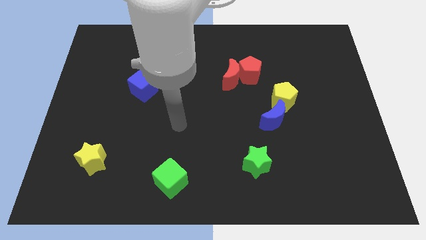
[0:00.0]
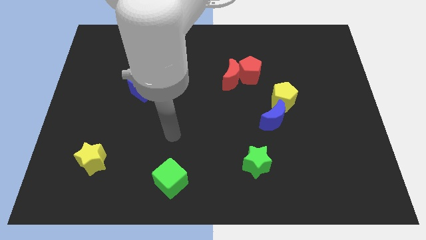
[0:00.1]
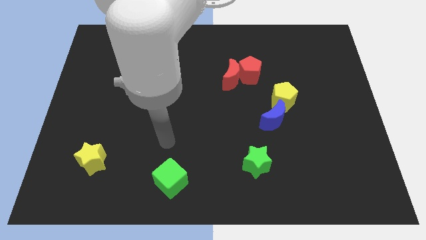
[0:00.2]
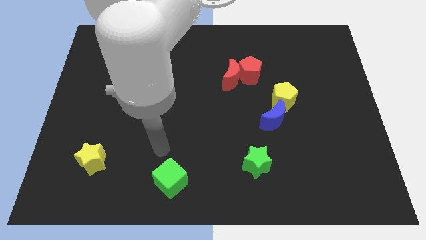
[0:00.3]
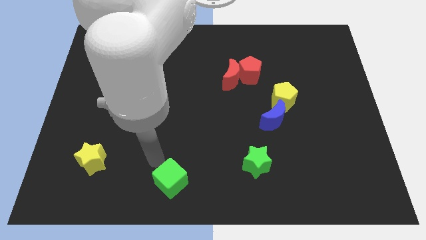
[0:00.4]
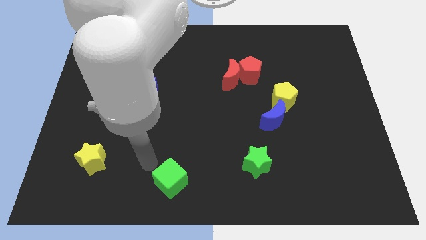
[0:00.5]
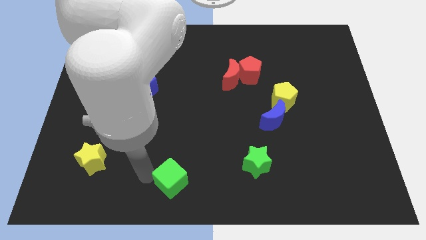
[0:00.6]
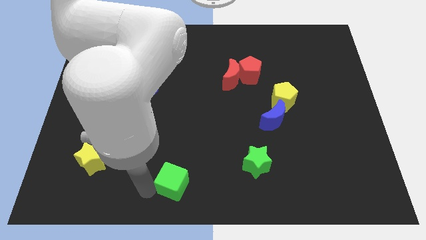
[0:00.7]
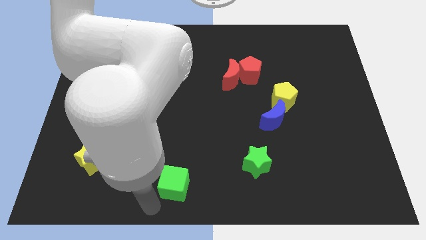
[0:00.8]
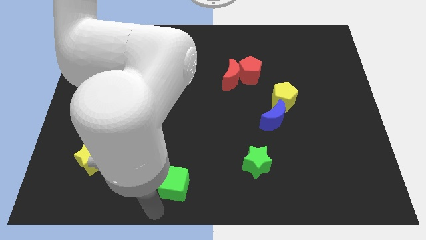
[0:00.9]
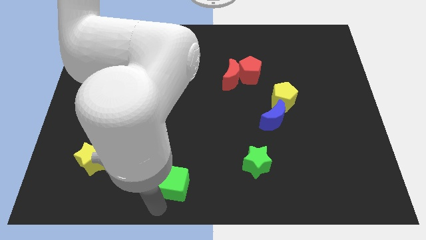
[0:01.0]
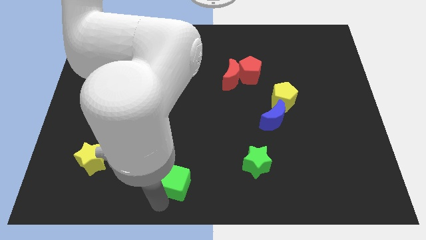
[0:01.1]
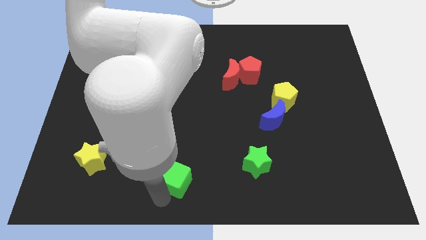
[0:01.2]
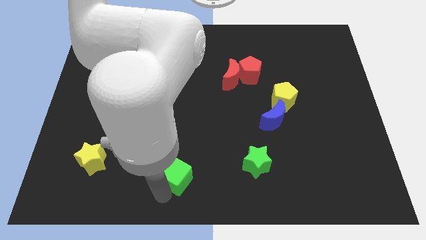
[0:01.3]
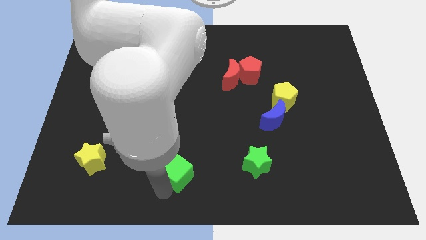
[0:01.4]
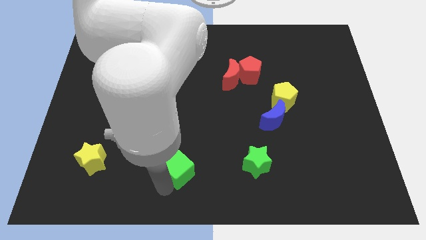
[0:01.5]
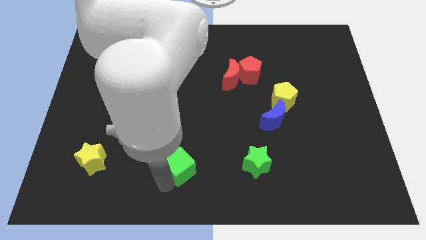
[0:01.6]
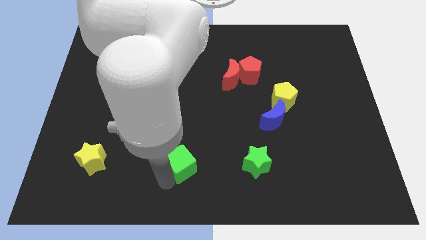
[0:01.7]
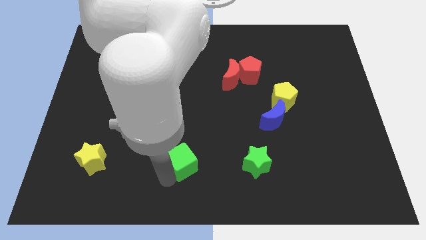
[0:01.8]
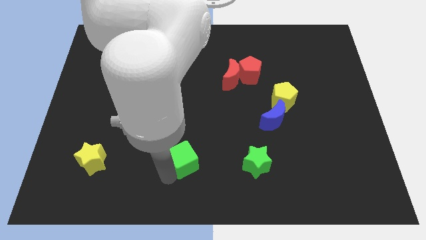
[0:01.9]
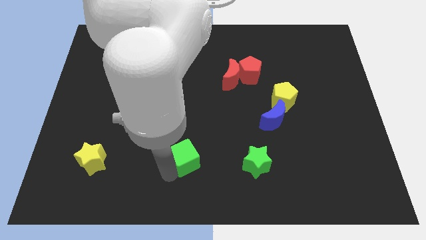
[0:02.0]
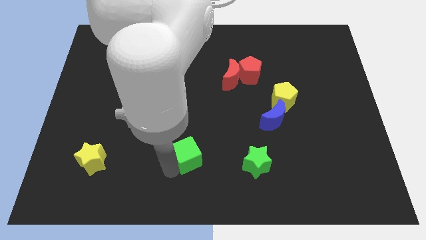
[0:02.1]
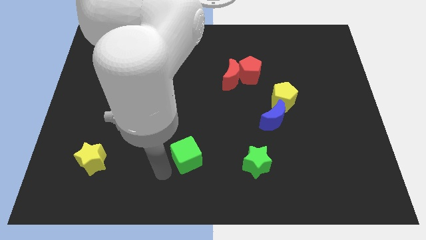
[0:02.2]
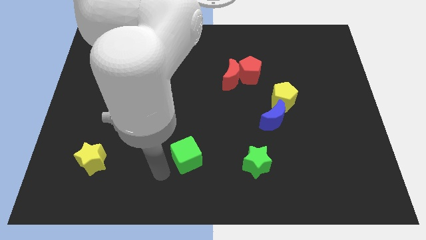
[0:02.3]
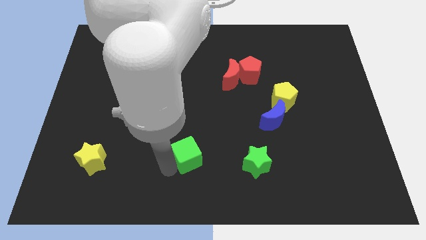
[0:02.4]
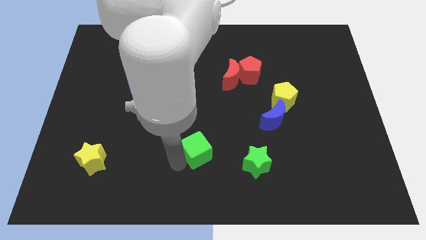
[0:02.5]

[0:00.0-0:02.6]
slide the green cube somewhat up and to the right diagonally

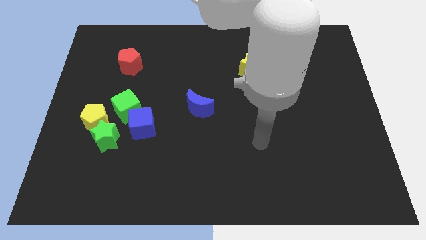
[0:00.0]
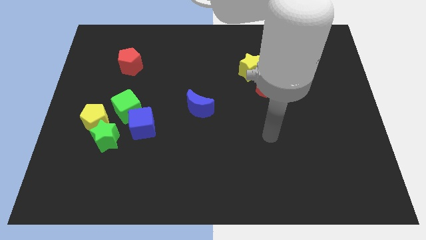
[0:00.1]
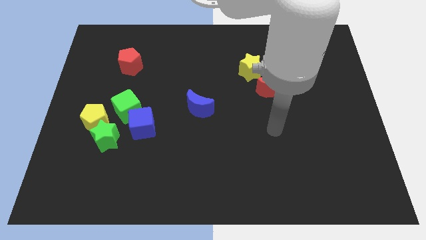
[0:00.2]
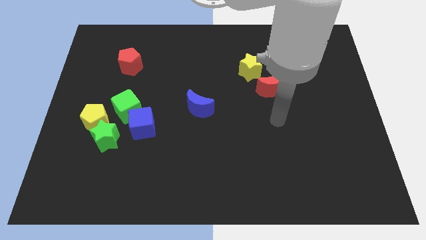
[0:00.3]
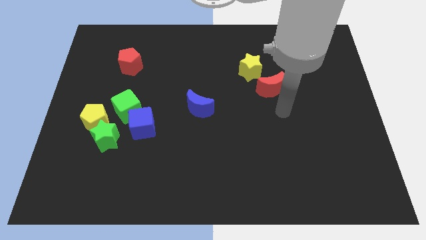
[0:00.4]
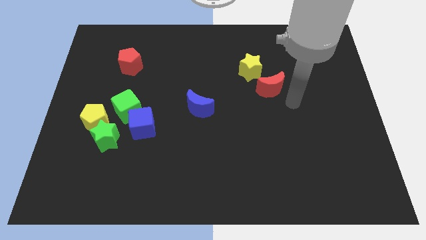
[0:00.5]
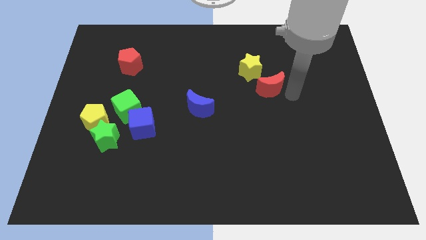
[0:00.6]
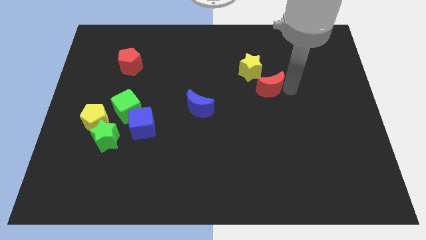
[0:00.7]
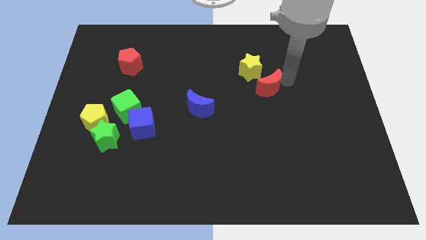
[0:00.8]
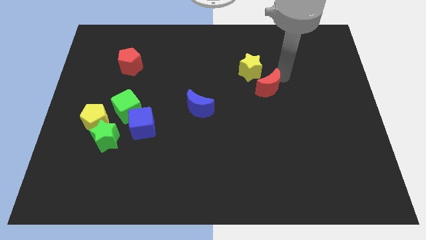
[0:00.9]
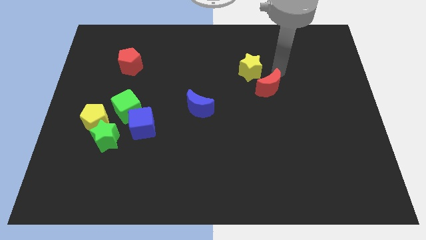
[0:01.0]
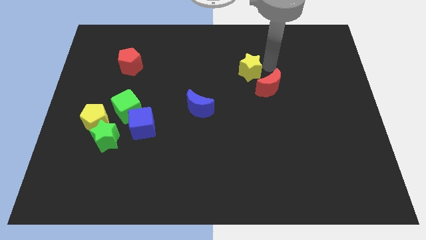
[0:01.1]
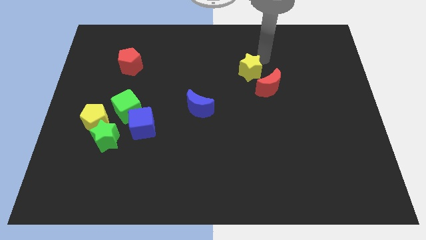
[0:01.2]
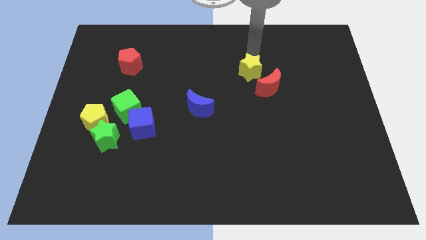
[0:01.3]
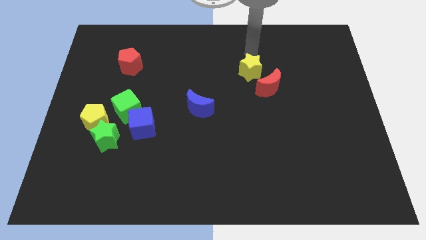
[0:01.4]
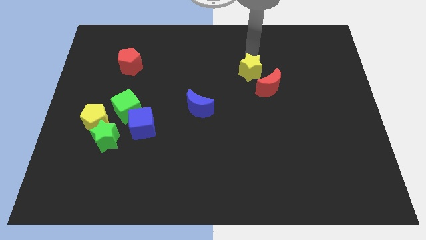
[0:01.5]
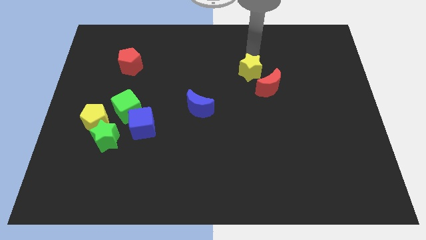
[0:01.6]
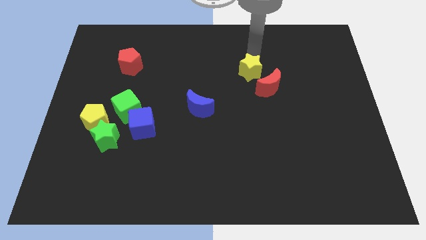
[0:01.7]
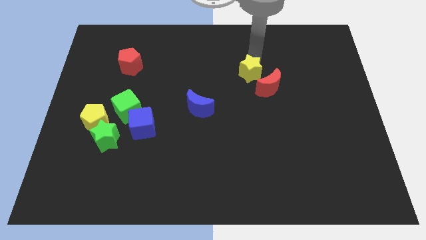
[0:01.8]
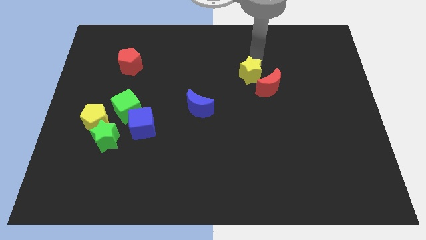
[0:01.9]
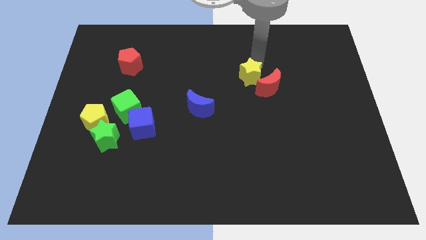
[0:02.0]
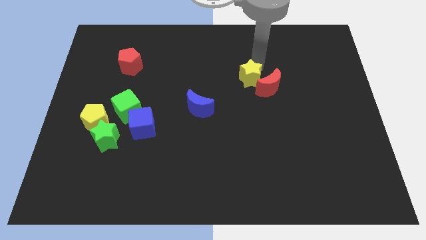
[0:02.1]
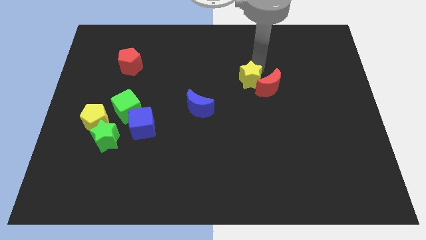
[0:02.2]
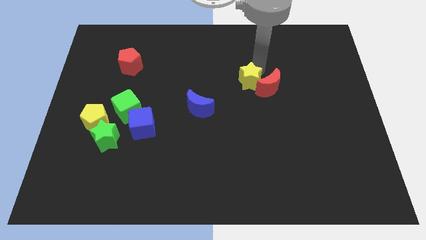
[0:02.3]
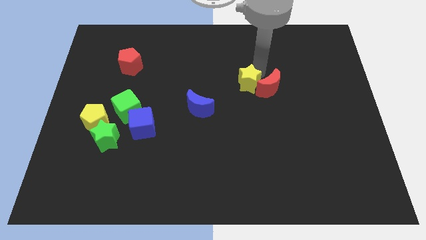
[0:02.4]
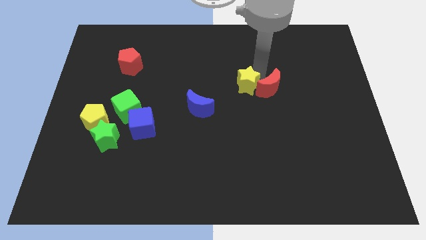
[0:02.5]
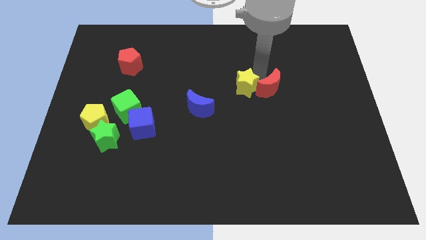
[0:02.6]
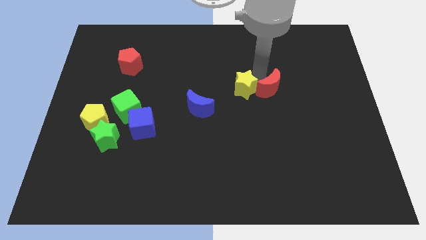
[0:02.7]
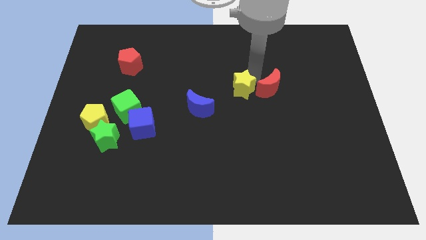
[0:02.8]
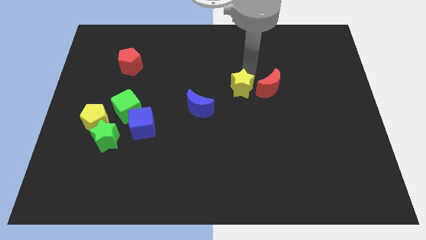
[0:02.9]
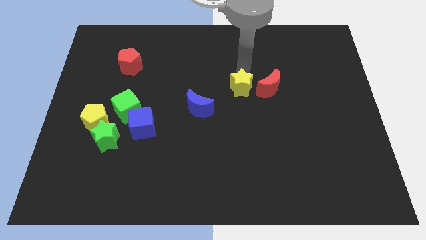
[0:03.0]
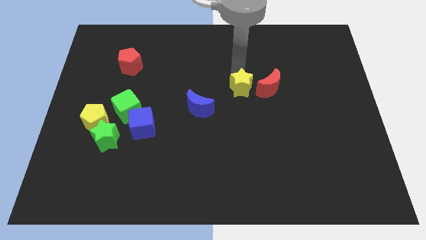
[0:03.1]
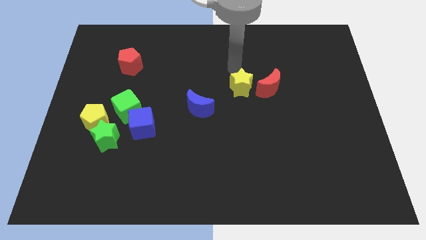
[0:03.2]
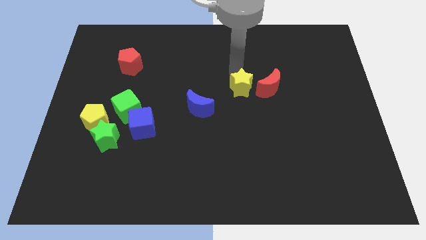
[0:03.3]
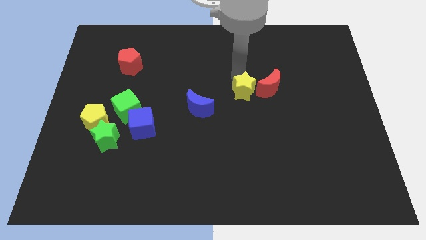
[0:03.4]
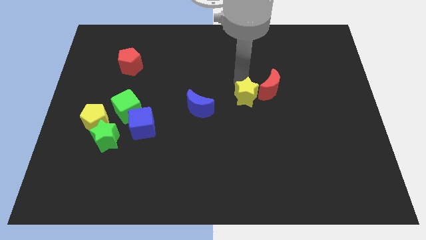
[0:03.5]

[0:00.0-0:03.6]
push the yellow star a bit downwards

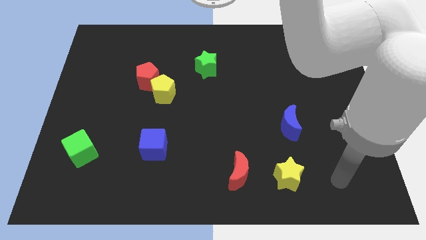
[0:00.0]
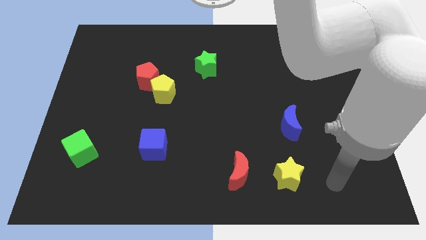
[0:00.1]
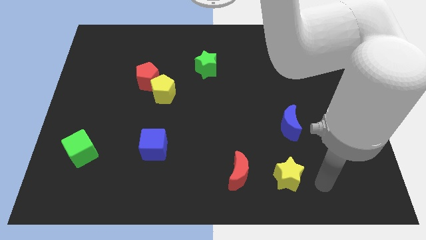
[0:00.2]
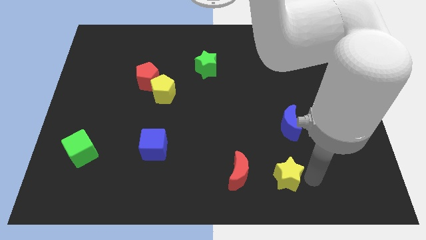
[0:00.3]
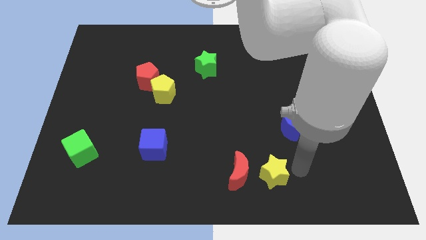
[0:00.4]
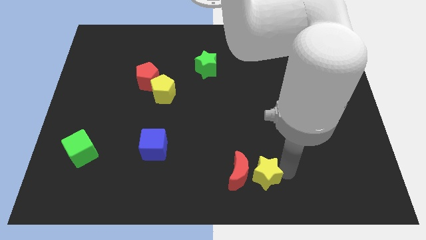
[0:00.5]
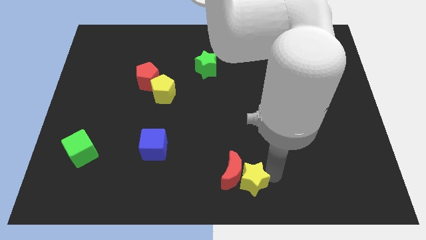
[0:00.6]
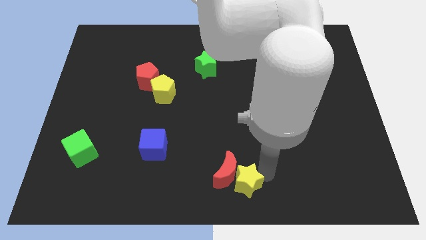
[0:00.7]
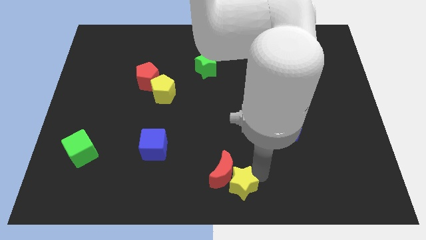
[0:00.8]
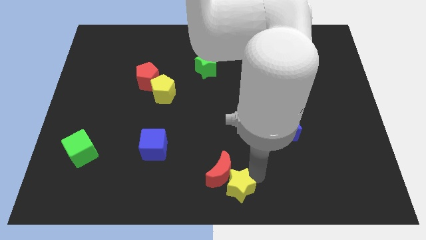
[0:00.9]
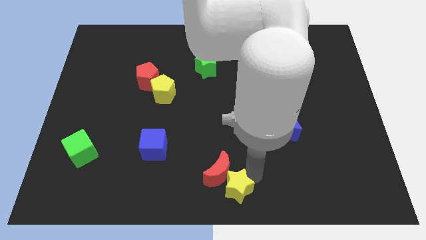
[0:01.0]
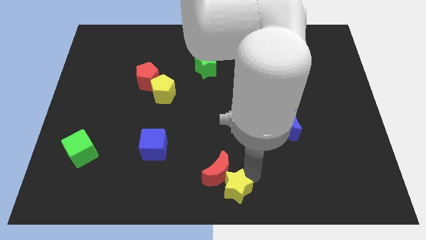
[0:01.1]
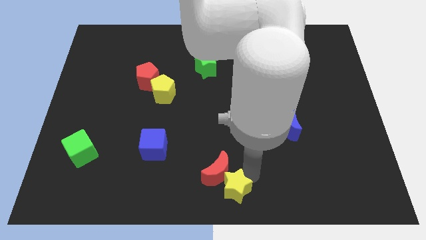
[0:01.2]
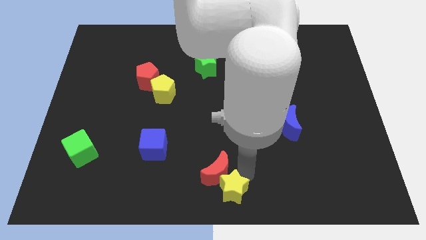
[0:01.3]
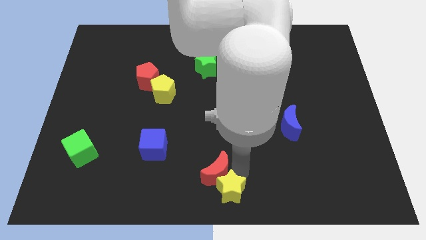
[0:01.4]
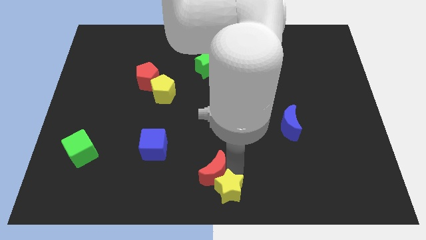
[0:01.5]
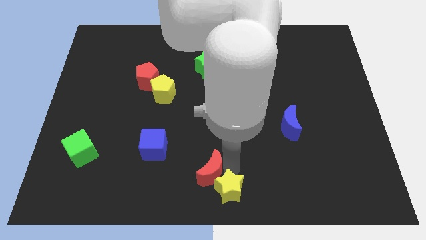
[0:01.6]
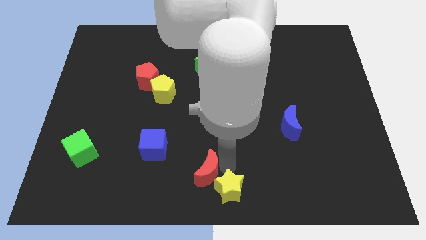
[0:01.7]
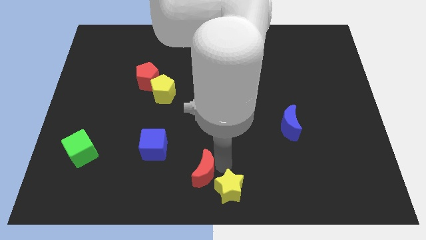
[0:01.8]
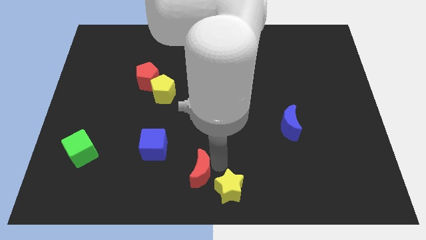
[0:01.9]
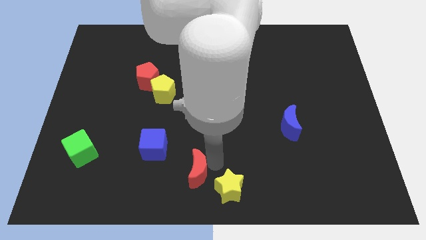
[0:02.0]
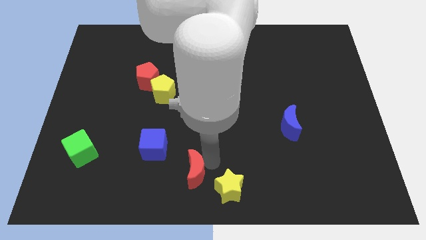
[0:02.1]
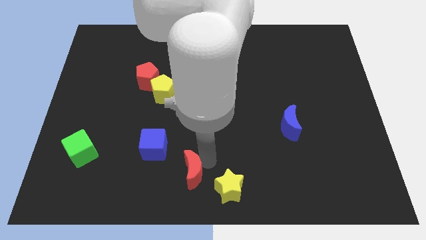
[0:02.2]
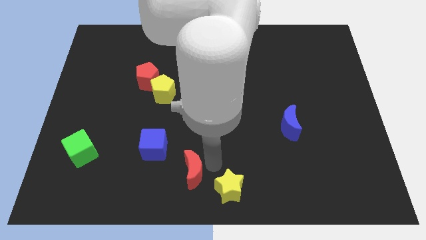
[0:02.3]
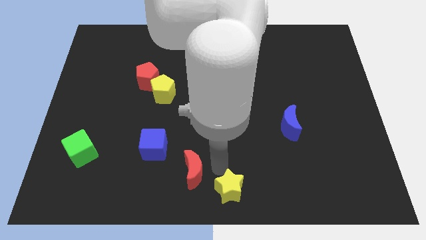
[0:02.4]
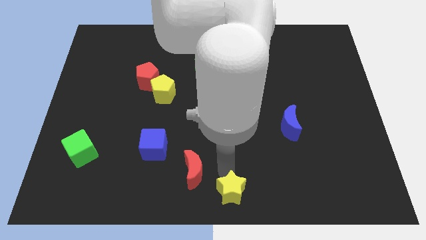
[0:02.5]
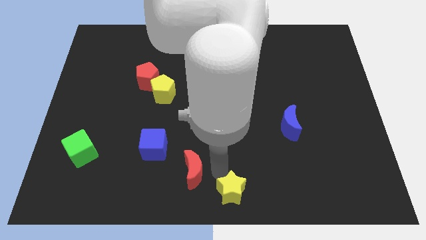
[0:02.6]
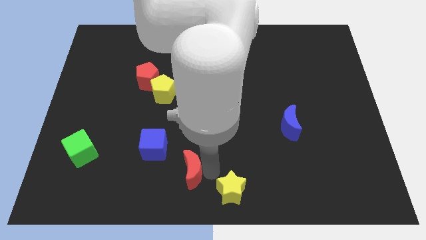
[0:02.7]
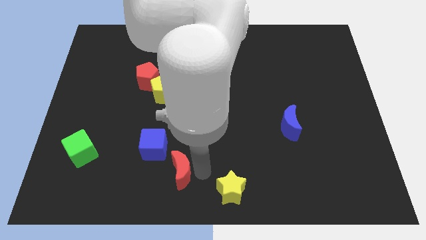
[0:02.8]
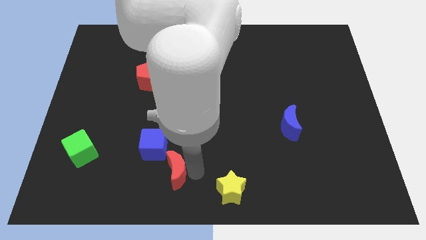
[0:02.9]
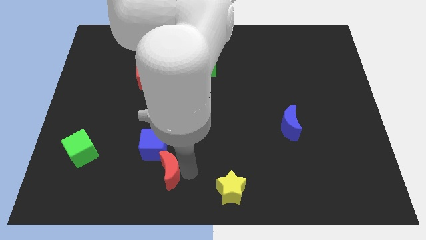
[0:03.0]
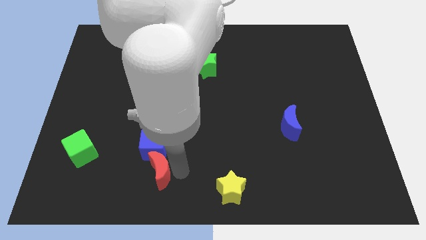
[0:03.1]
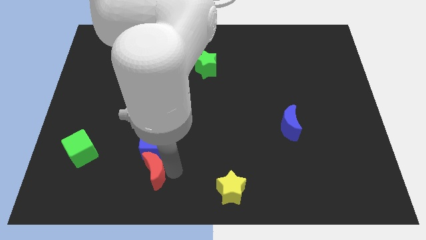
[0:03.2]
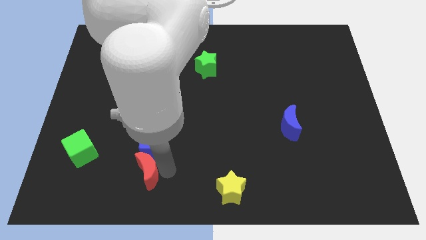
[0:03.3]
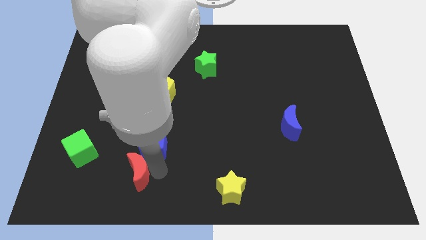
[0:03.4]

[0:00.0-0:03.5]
push the red moon to the left
